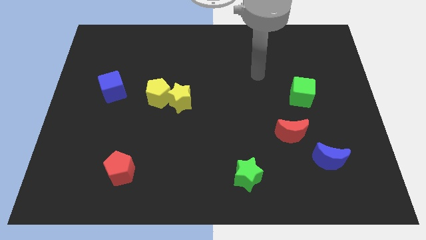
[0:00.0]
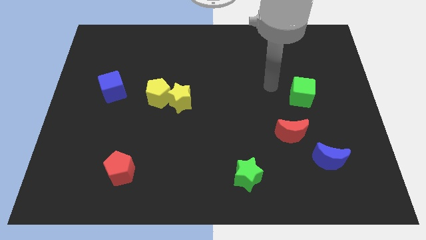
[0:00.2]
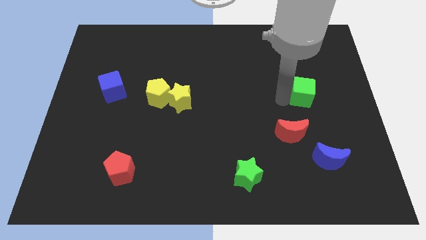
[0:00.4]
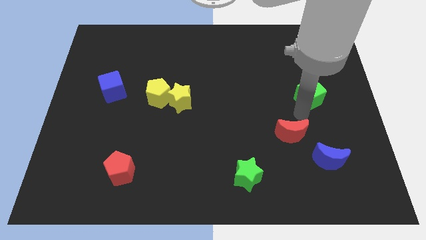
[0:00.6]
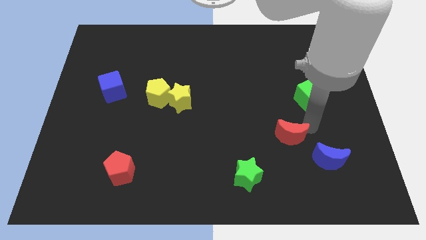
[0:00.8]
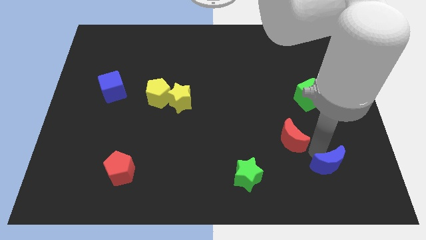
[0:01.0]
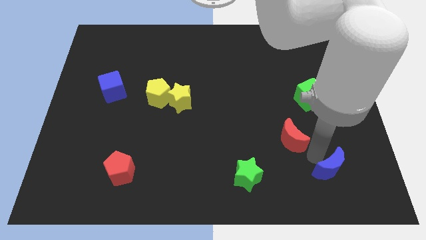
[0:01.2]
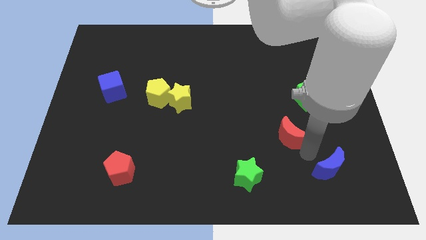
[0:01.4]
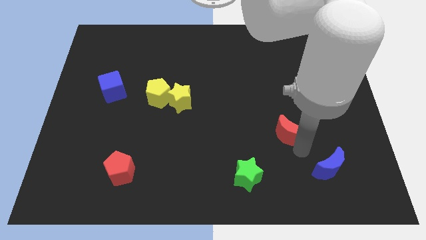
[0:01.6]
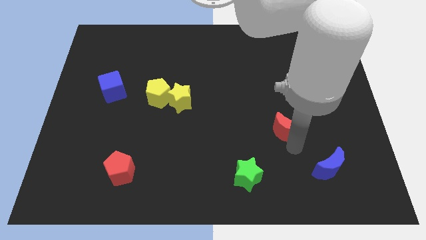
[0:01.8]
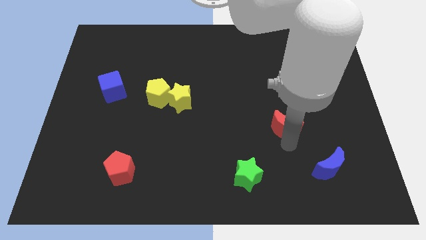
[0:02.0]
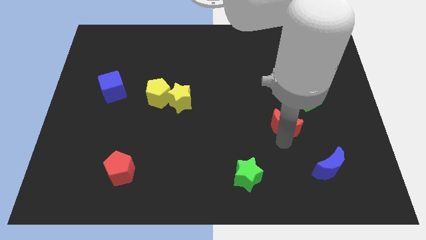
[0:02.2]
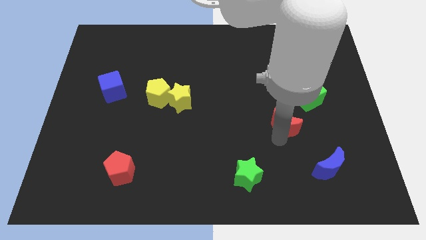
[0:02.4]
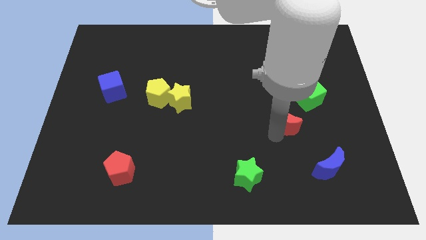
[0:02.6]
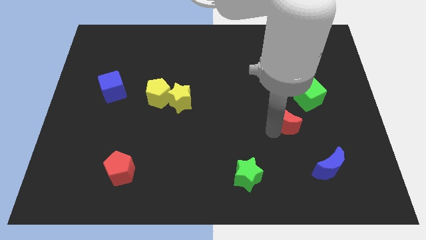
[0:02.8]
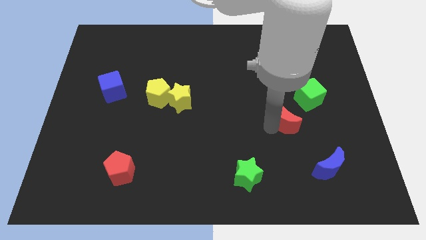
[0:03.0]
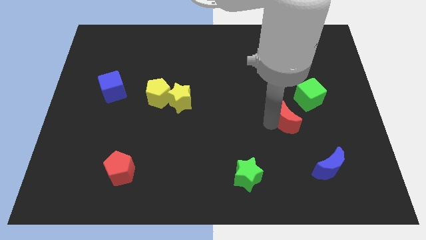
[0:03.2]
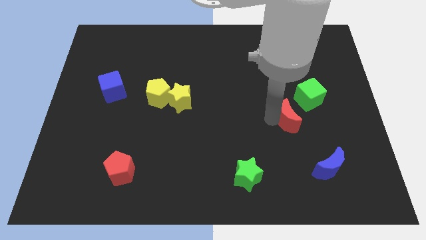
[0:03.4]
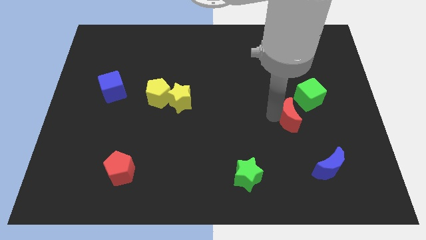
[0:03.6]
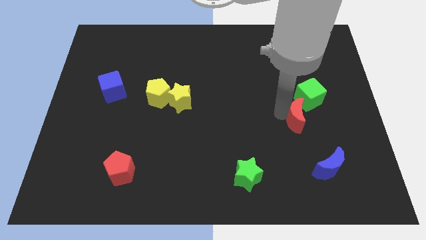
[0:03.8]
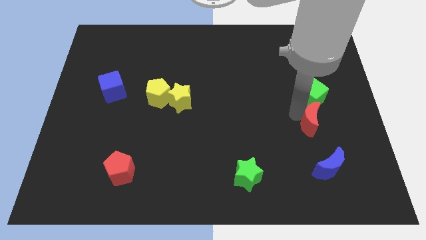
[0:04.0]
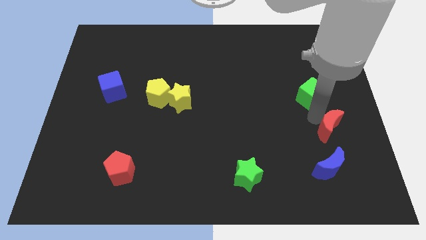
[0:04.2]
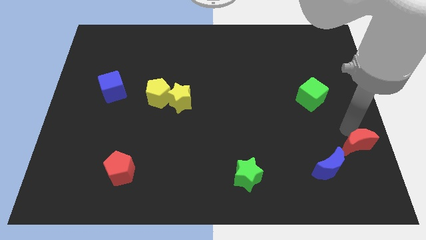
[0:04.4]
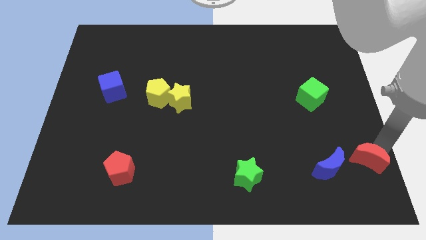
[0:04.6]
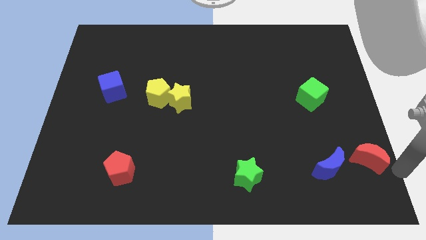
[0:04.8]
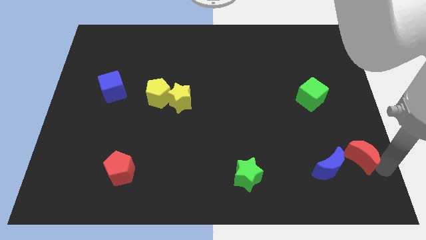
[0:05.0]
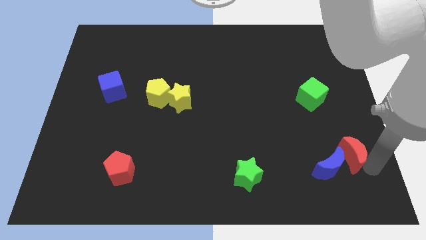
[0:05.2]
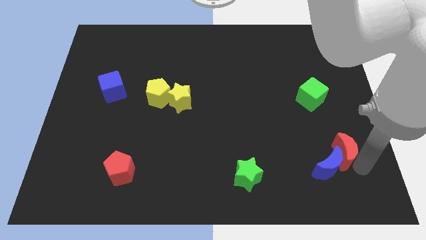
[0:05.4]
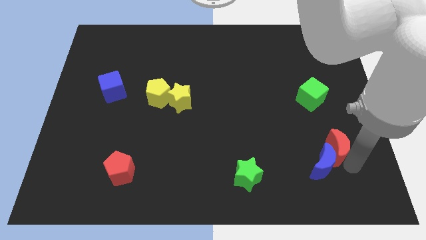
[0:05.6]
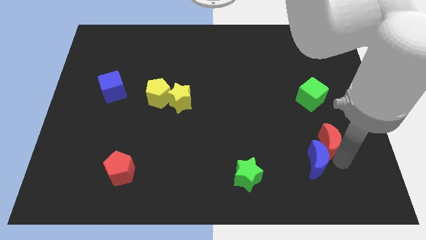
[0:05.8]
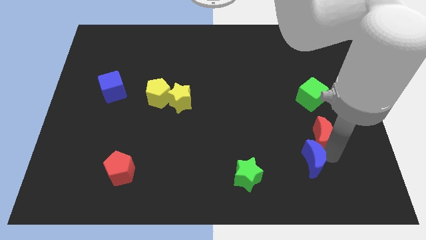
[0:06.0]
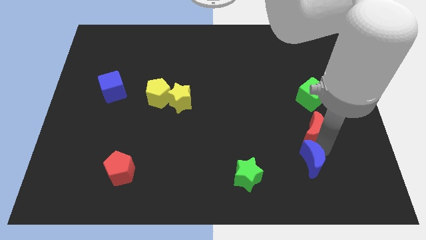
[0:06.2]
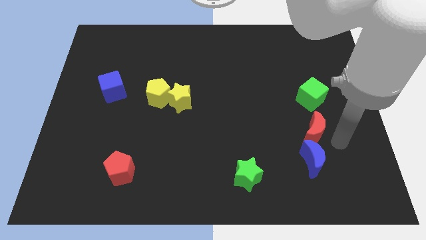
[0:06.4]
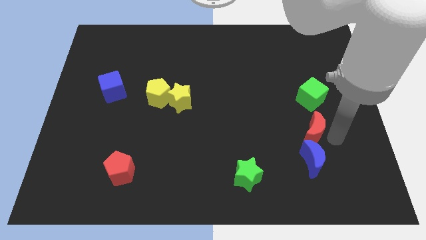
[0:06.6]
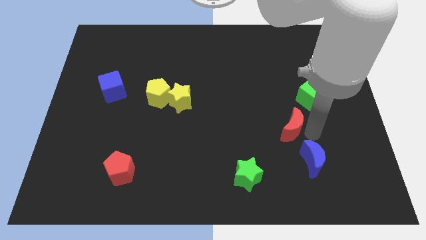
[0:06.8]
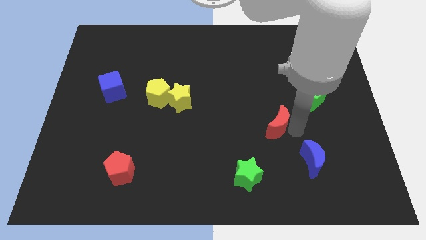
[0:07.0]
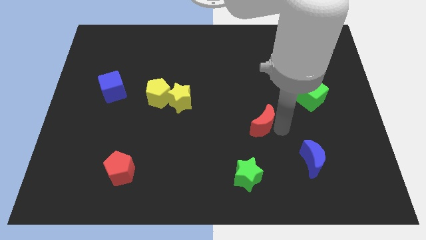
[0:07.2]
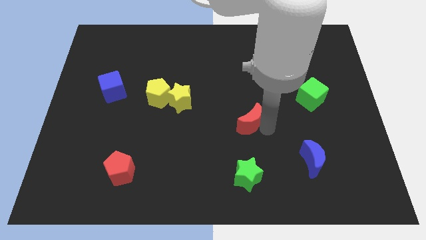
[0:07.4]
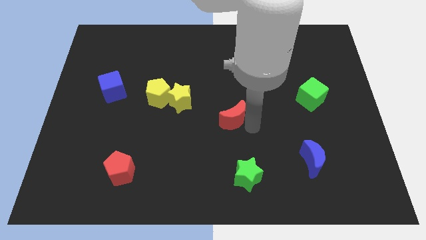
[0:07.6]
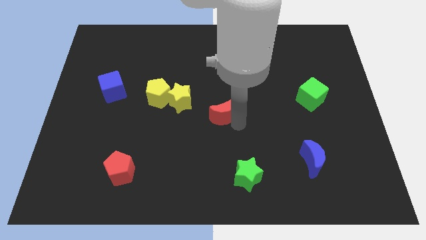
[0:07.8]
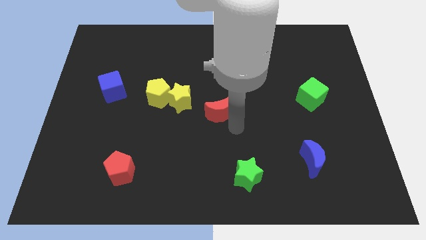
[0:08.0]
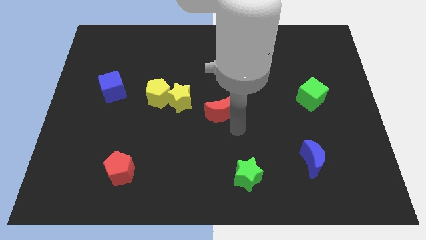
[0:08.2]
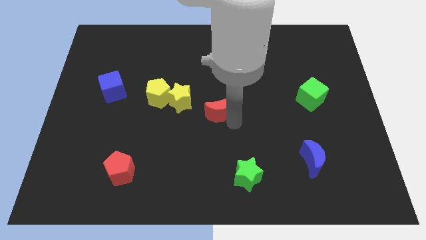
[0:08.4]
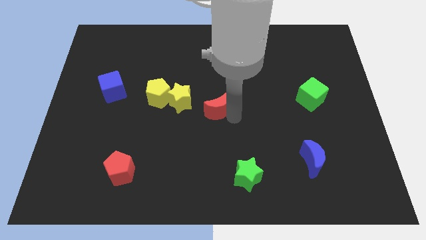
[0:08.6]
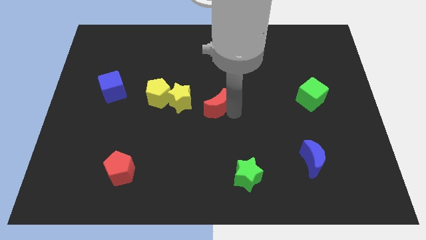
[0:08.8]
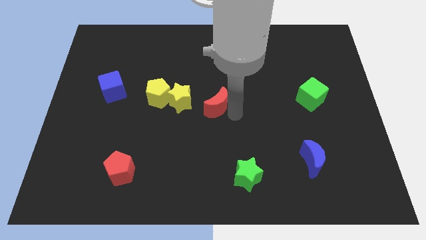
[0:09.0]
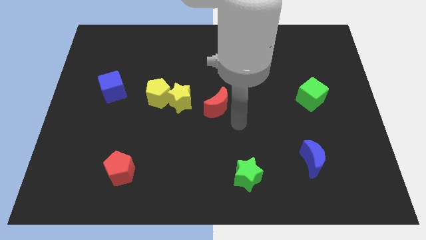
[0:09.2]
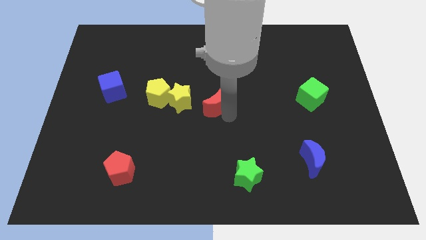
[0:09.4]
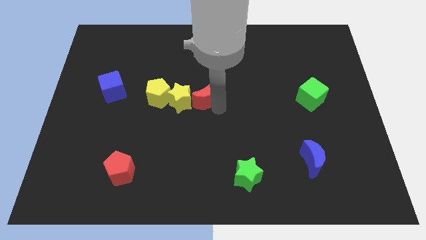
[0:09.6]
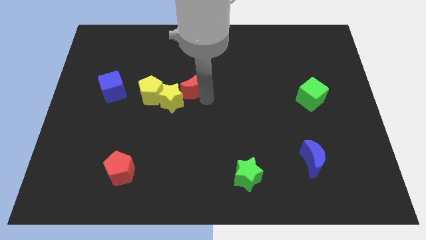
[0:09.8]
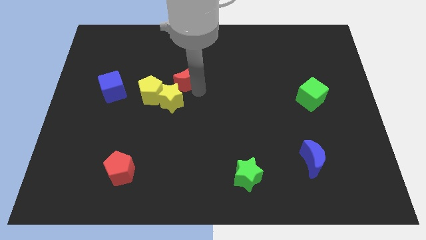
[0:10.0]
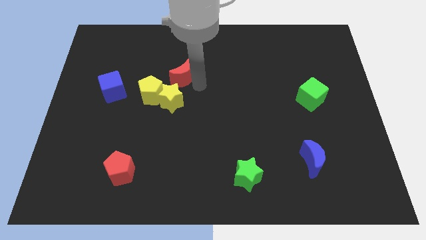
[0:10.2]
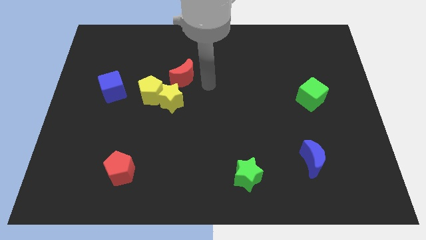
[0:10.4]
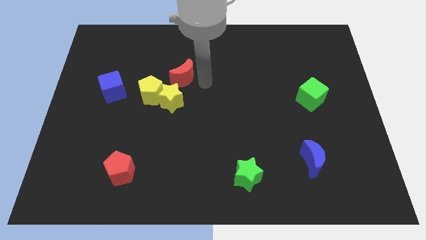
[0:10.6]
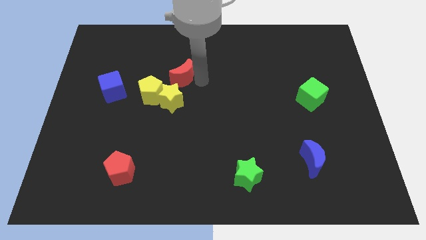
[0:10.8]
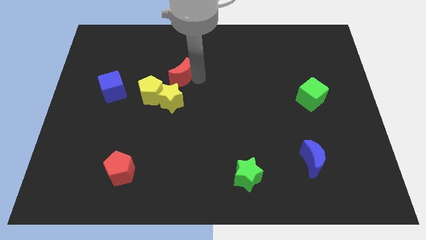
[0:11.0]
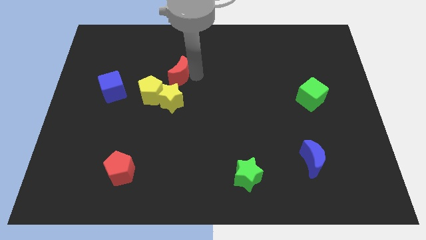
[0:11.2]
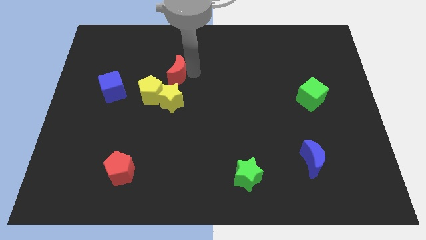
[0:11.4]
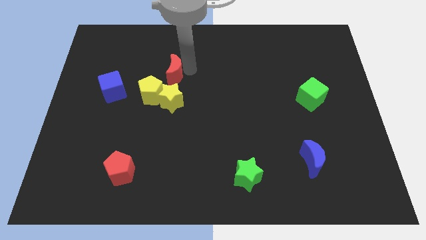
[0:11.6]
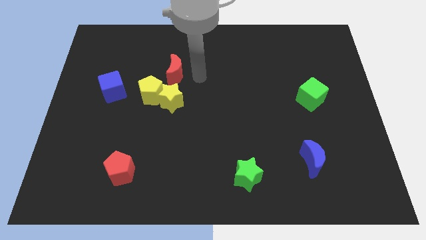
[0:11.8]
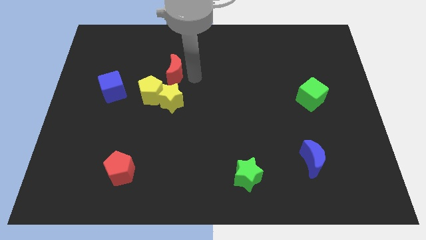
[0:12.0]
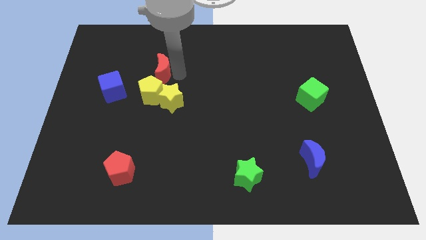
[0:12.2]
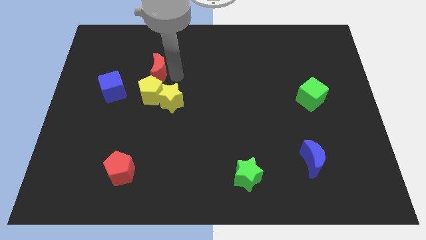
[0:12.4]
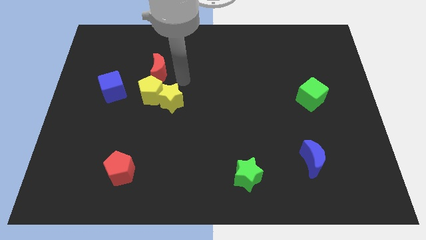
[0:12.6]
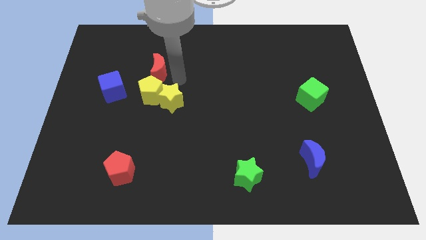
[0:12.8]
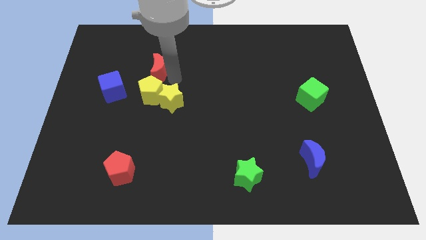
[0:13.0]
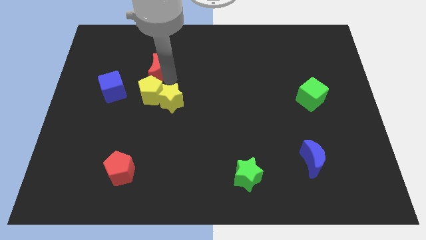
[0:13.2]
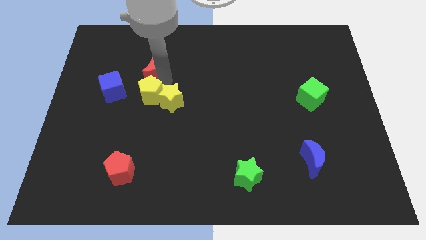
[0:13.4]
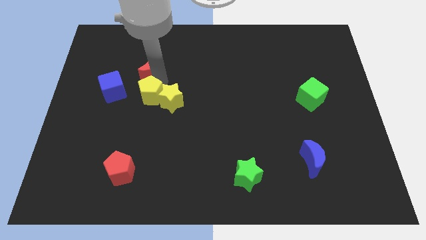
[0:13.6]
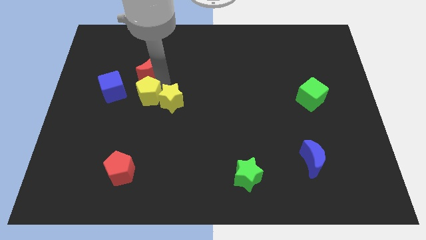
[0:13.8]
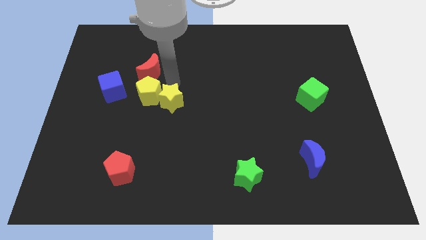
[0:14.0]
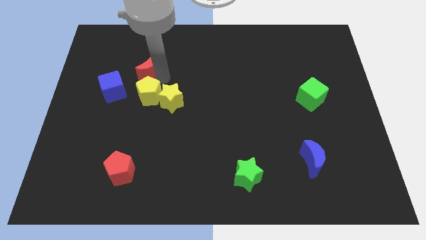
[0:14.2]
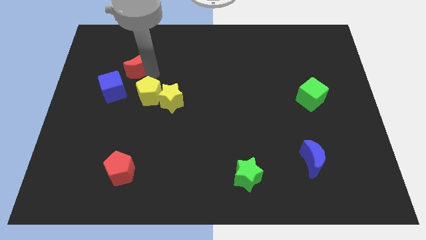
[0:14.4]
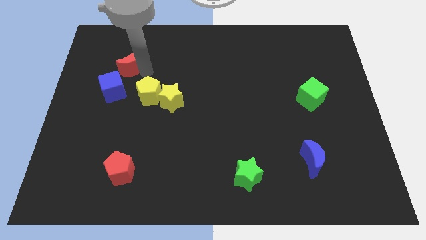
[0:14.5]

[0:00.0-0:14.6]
push the red moon to the top of the blue cube
